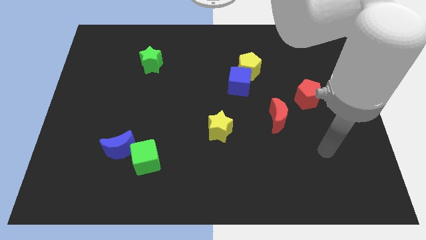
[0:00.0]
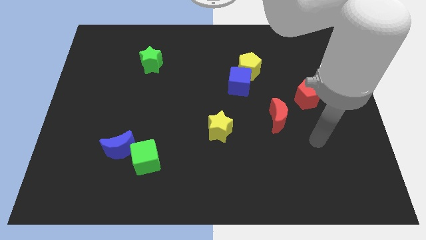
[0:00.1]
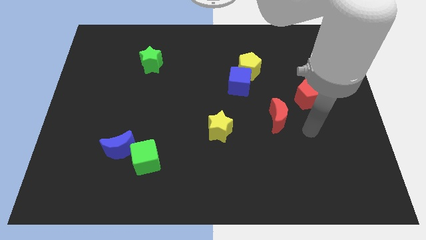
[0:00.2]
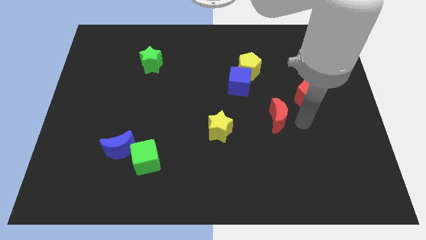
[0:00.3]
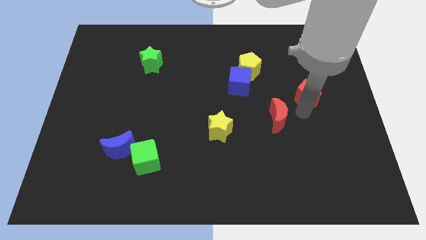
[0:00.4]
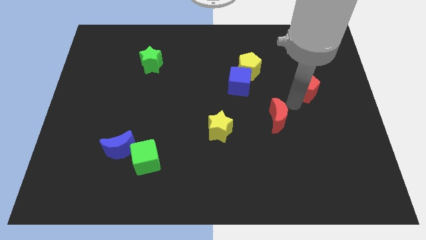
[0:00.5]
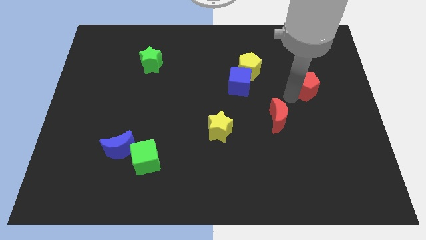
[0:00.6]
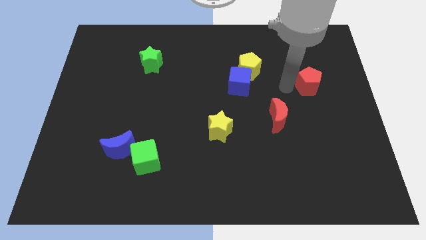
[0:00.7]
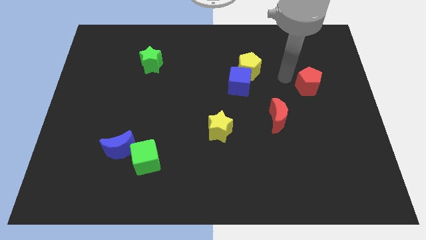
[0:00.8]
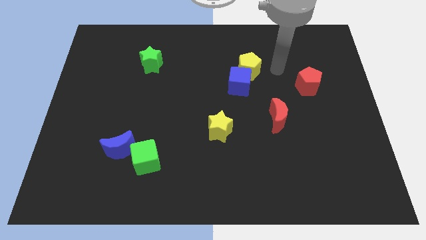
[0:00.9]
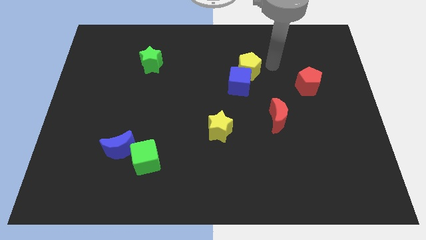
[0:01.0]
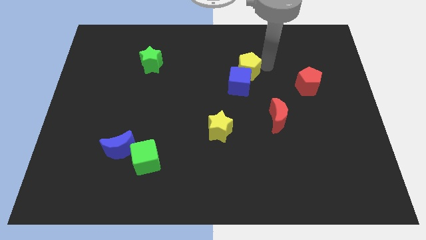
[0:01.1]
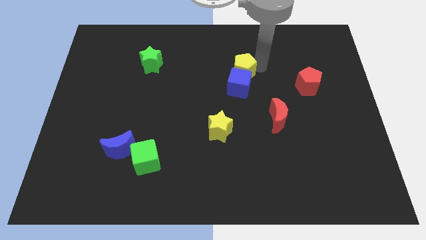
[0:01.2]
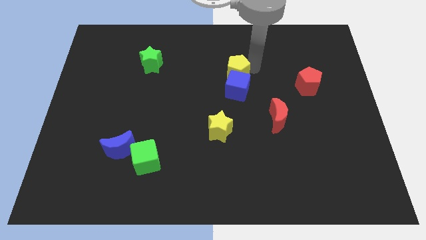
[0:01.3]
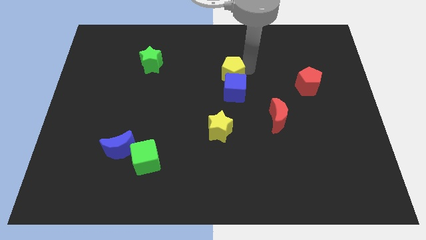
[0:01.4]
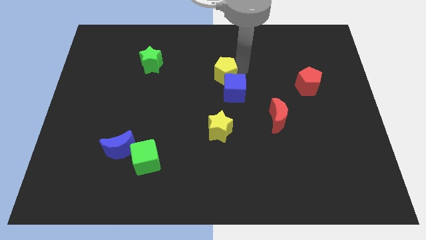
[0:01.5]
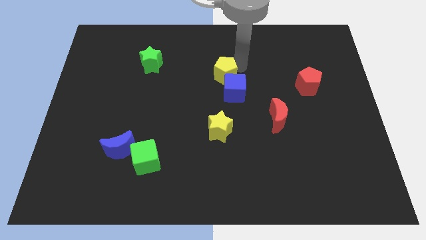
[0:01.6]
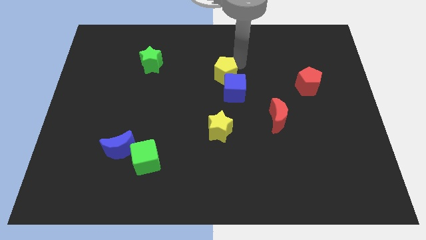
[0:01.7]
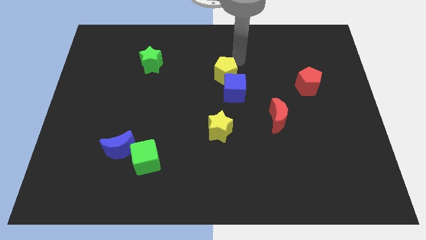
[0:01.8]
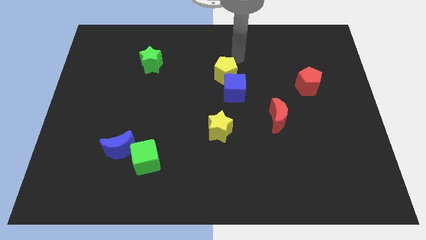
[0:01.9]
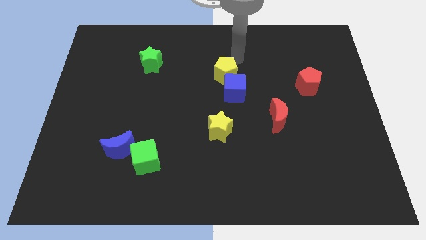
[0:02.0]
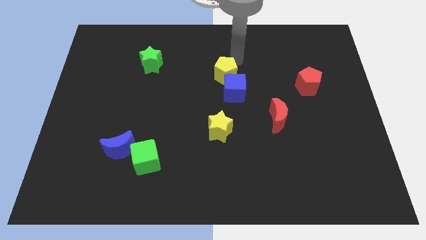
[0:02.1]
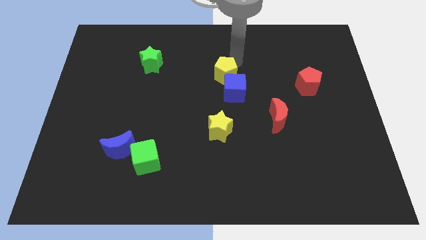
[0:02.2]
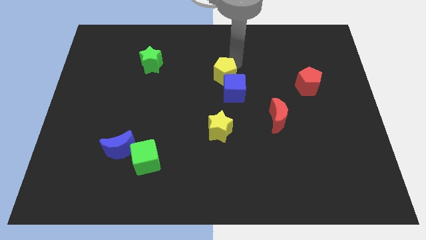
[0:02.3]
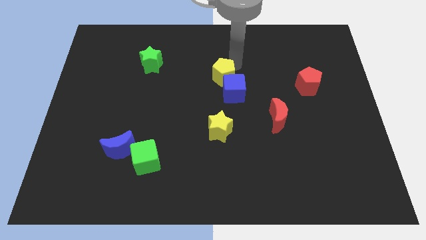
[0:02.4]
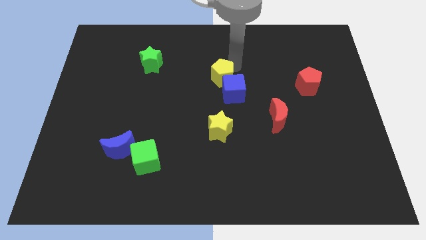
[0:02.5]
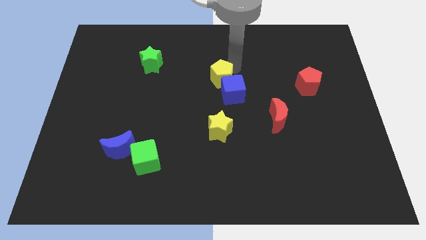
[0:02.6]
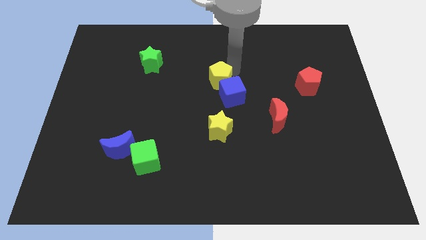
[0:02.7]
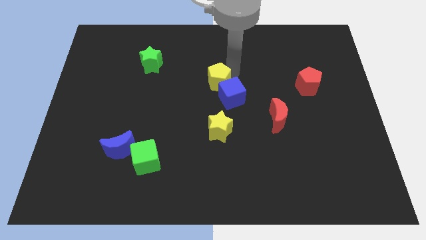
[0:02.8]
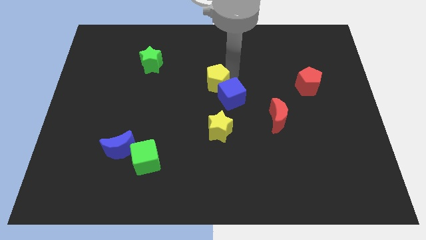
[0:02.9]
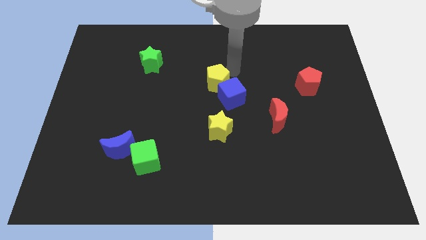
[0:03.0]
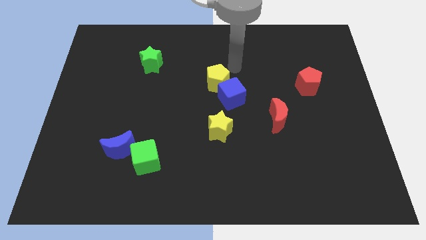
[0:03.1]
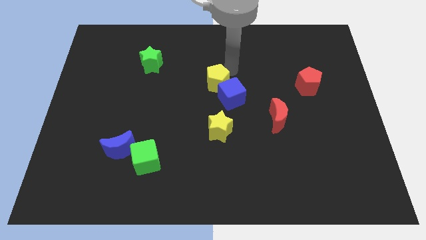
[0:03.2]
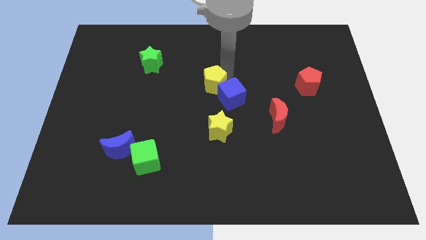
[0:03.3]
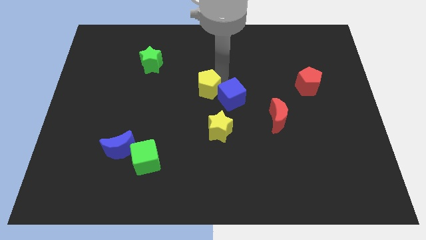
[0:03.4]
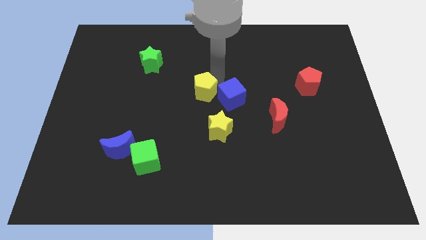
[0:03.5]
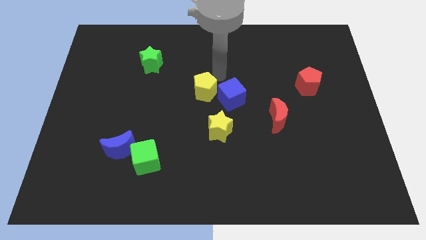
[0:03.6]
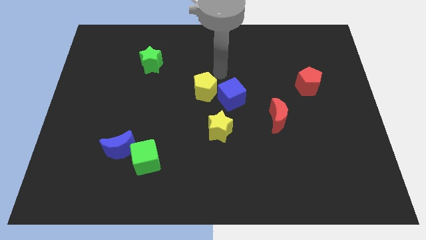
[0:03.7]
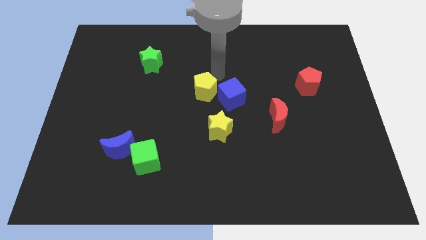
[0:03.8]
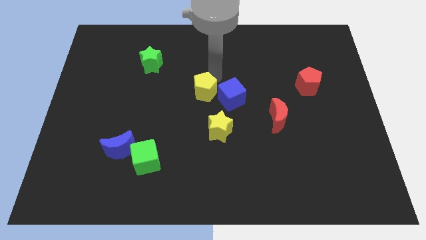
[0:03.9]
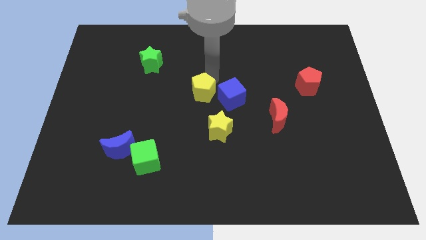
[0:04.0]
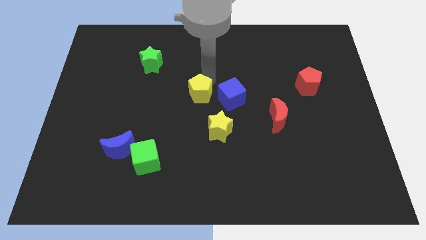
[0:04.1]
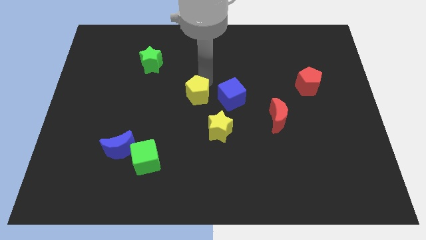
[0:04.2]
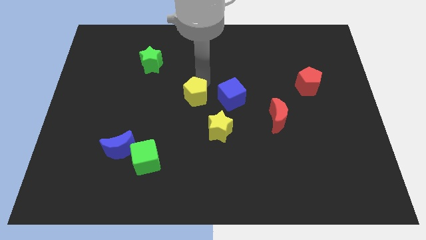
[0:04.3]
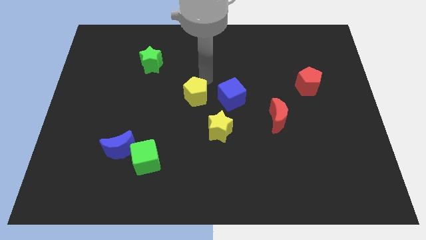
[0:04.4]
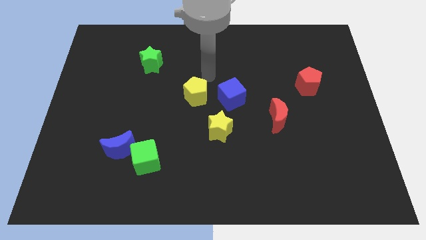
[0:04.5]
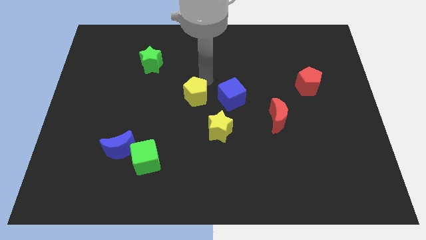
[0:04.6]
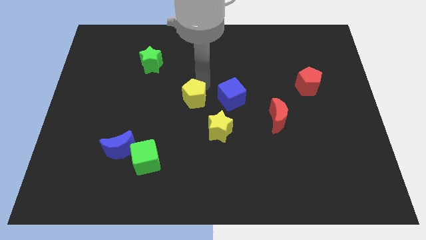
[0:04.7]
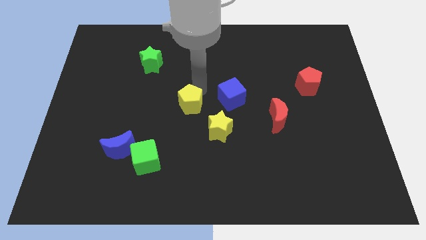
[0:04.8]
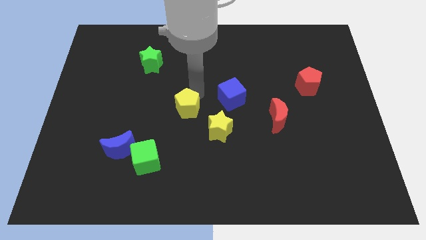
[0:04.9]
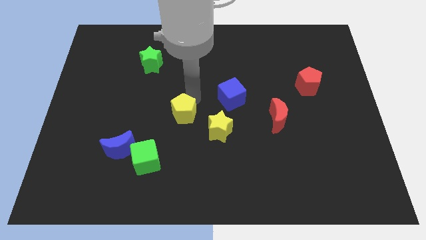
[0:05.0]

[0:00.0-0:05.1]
move the yellow pentagon just left of the yellow star

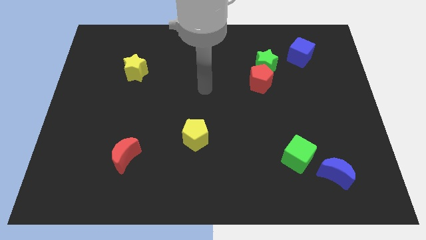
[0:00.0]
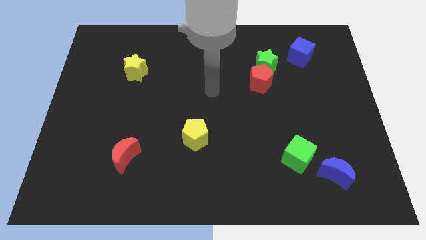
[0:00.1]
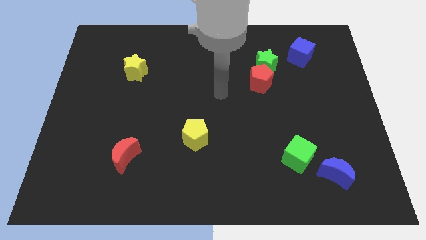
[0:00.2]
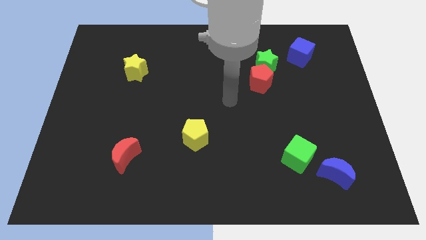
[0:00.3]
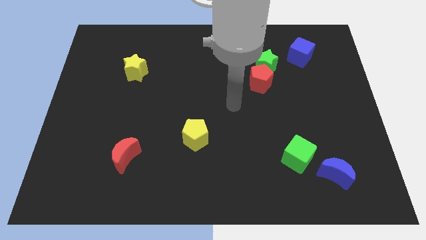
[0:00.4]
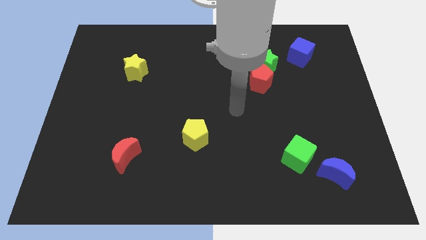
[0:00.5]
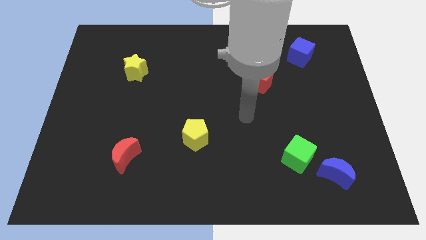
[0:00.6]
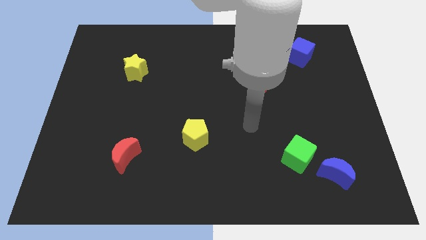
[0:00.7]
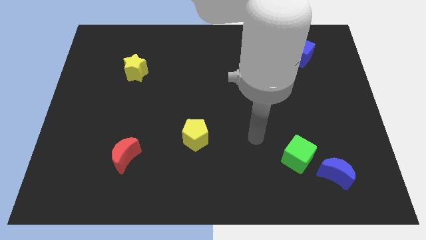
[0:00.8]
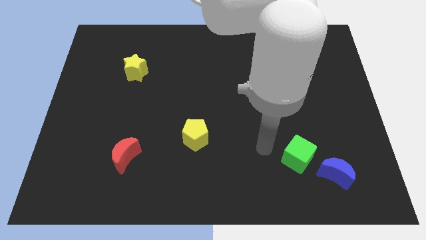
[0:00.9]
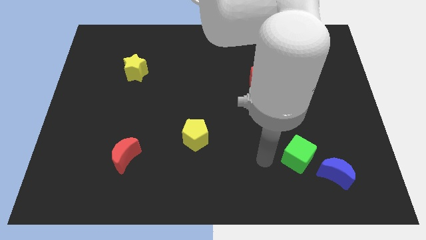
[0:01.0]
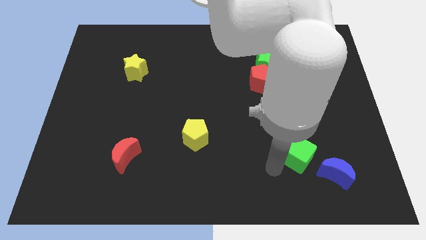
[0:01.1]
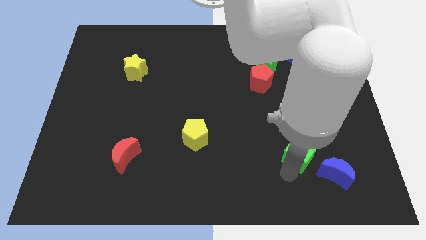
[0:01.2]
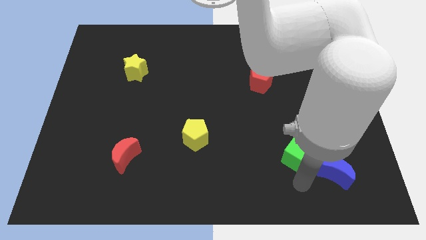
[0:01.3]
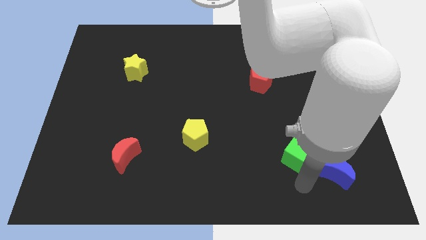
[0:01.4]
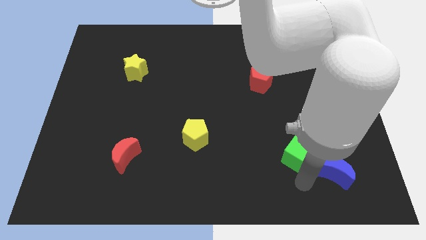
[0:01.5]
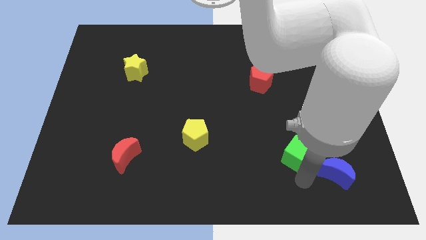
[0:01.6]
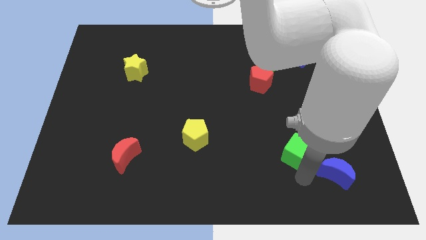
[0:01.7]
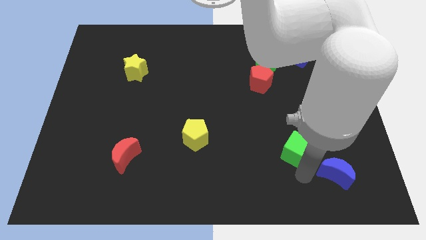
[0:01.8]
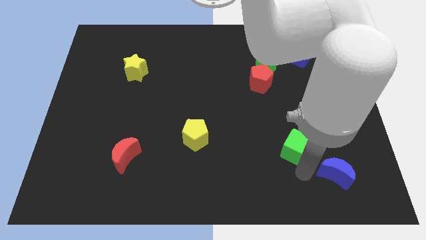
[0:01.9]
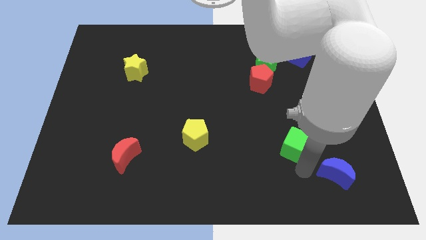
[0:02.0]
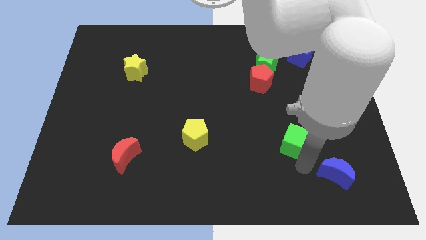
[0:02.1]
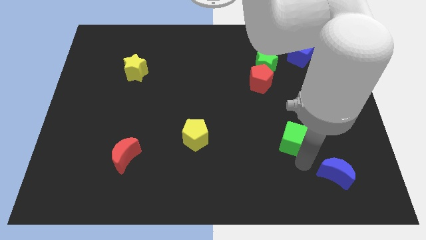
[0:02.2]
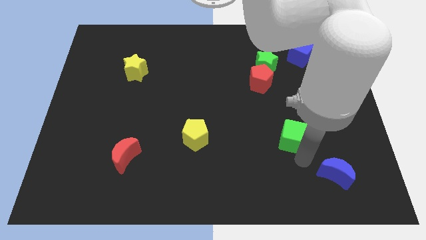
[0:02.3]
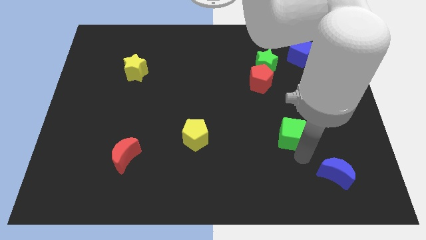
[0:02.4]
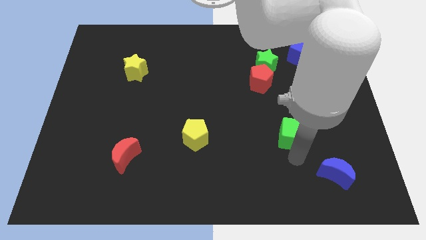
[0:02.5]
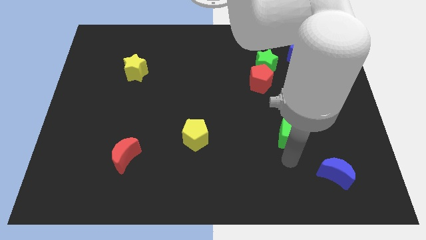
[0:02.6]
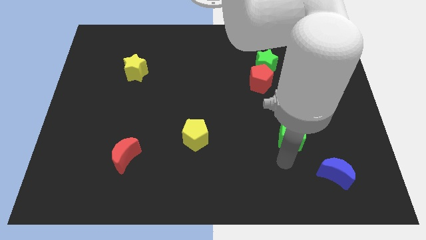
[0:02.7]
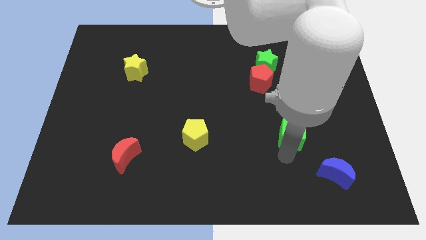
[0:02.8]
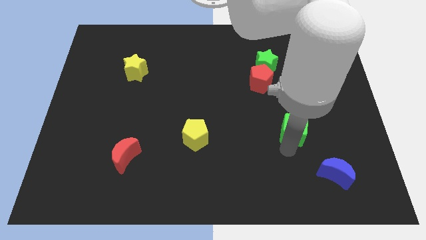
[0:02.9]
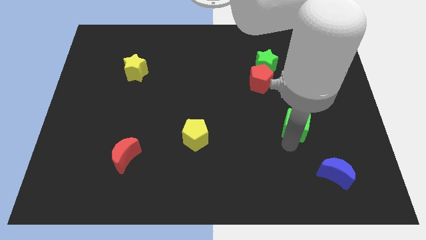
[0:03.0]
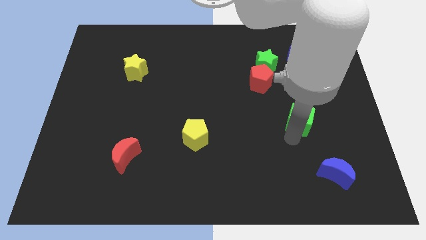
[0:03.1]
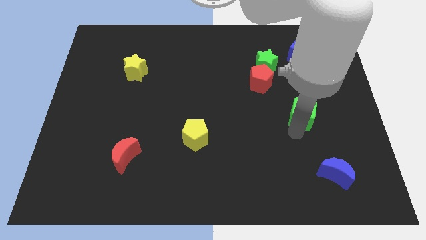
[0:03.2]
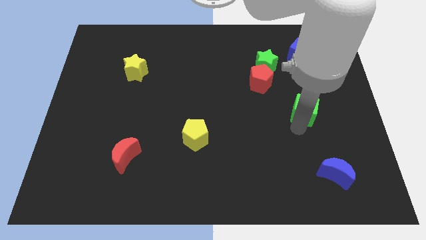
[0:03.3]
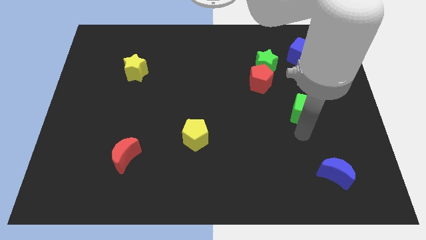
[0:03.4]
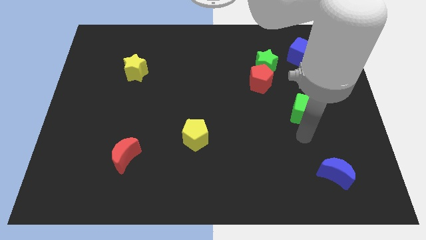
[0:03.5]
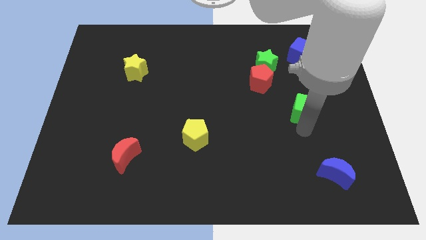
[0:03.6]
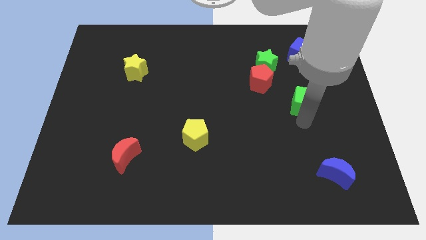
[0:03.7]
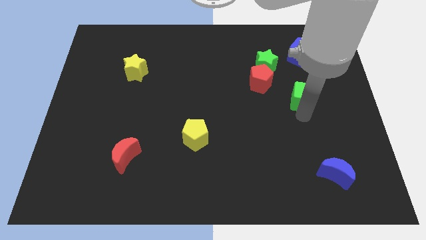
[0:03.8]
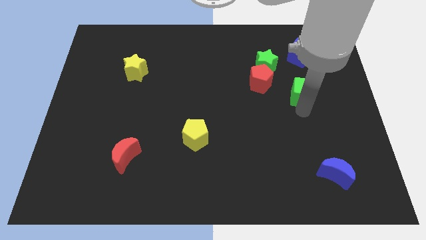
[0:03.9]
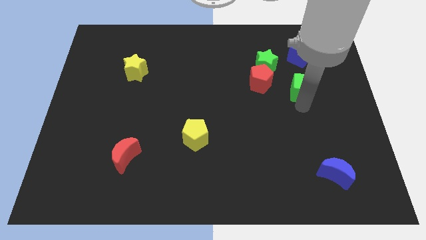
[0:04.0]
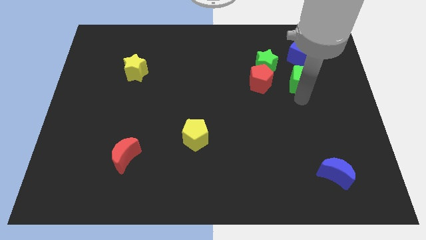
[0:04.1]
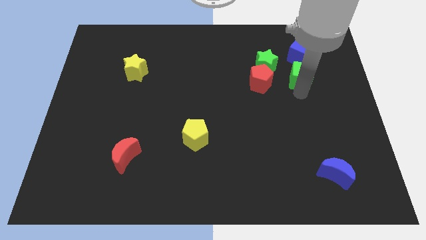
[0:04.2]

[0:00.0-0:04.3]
slide the green cube to the right of the green star
